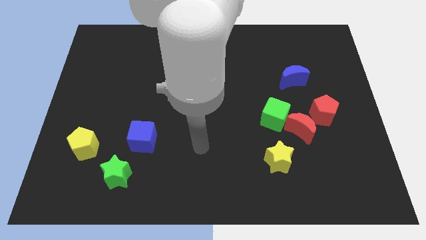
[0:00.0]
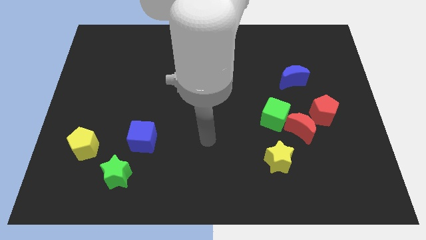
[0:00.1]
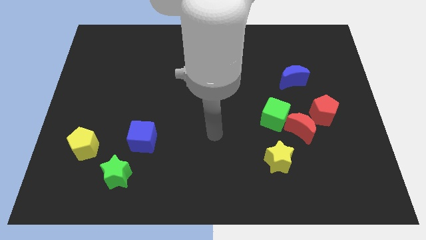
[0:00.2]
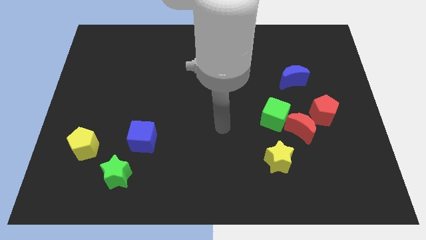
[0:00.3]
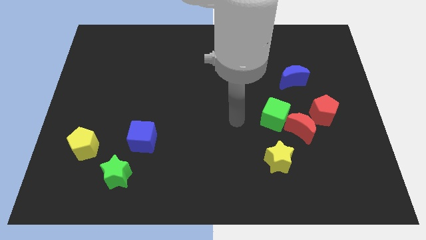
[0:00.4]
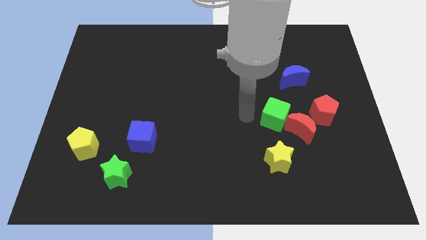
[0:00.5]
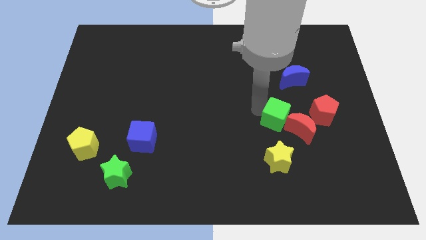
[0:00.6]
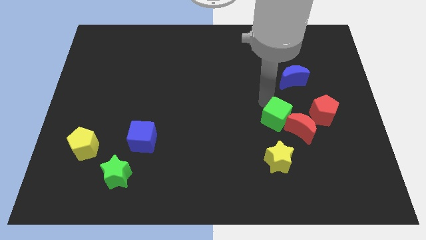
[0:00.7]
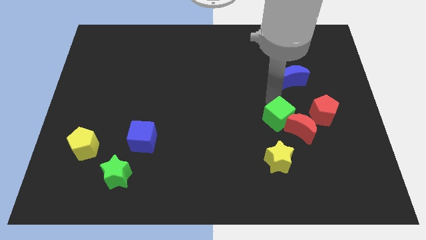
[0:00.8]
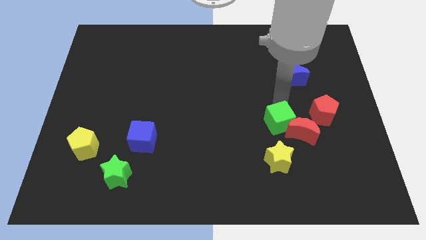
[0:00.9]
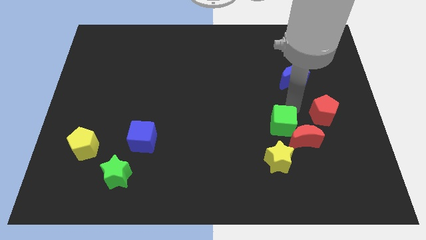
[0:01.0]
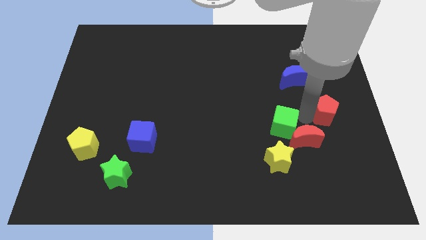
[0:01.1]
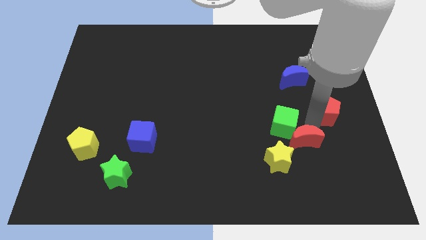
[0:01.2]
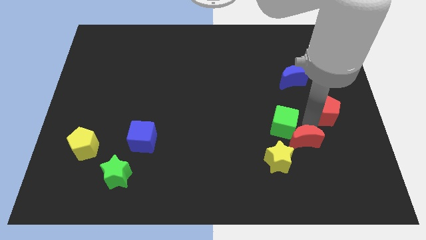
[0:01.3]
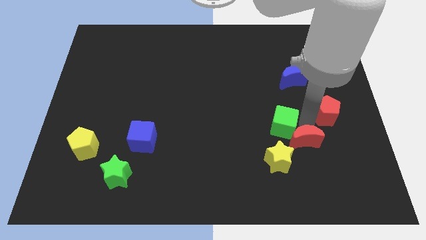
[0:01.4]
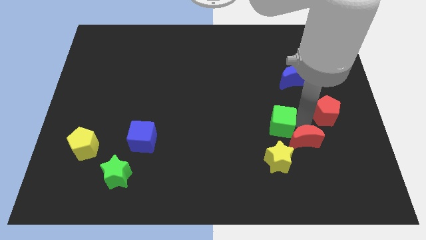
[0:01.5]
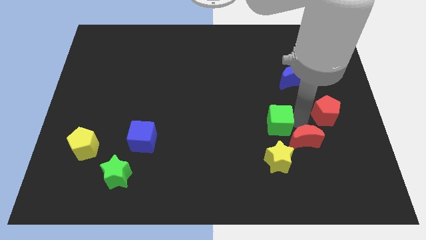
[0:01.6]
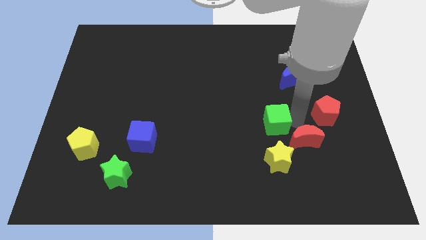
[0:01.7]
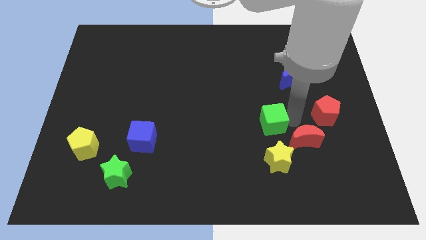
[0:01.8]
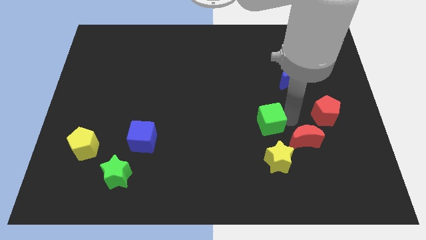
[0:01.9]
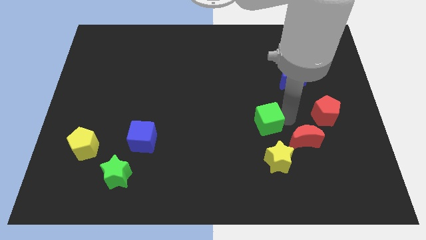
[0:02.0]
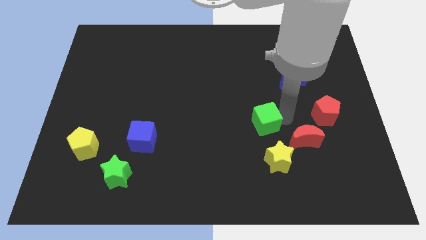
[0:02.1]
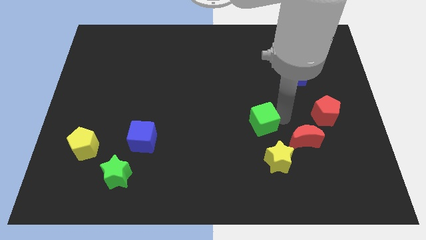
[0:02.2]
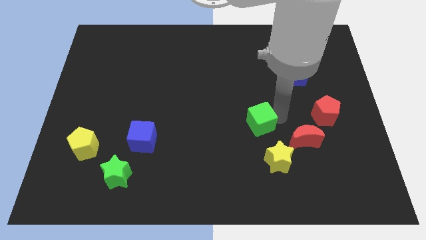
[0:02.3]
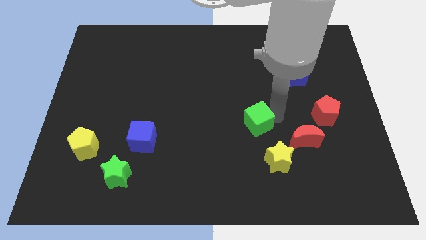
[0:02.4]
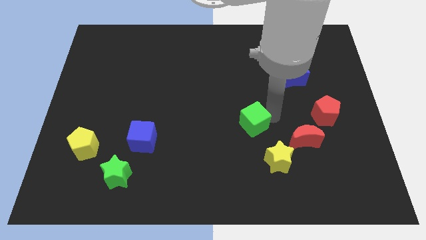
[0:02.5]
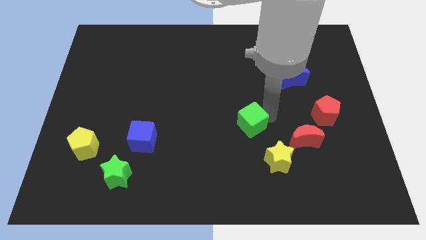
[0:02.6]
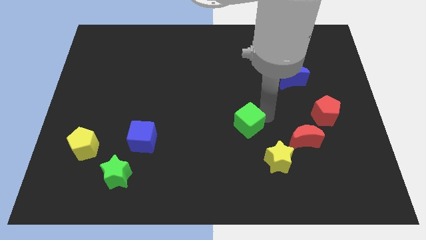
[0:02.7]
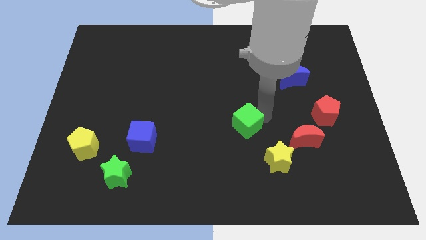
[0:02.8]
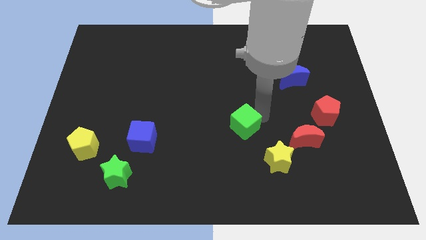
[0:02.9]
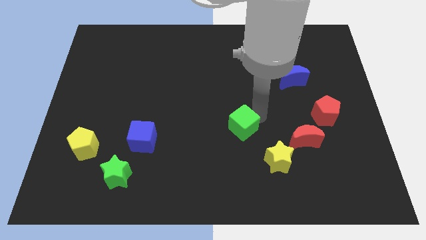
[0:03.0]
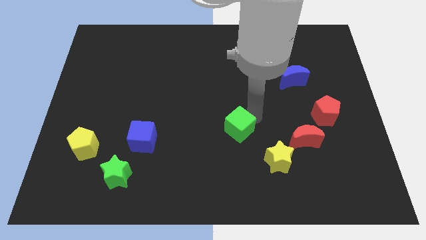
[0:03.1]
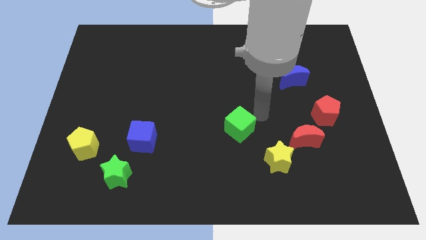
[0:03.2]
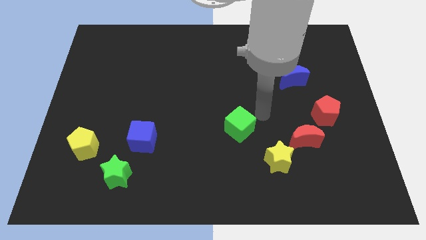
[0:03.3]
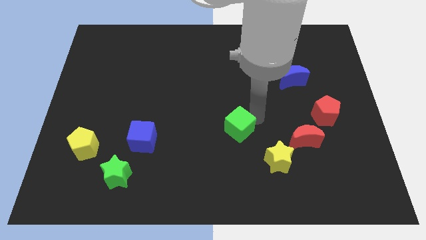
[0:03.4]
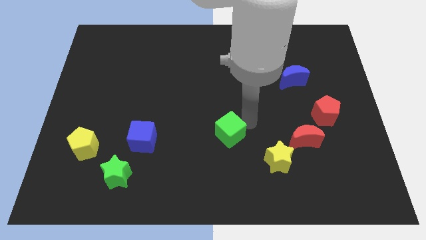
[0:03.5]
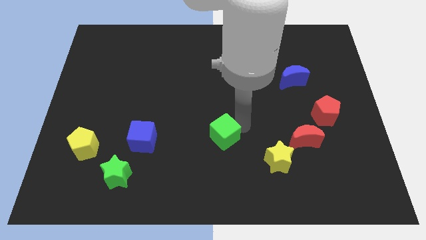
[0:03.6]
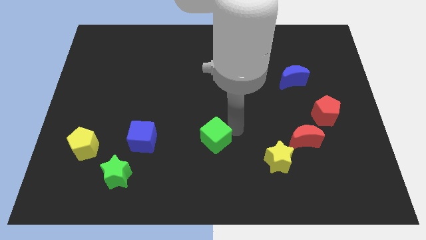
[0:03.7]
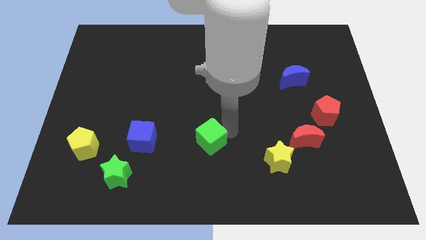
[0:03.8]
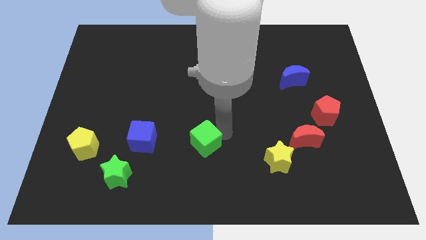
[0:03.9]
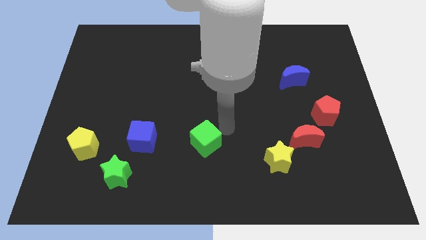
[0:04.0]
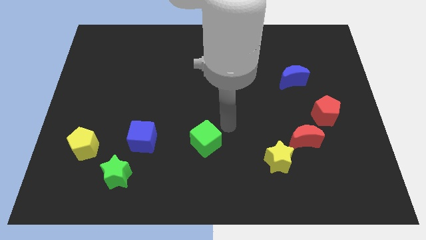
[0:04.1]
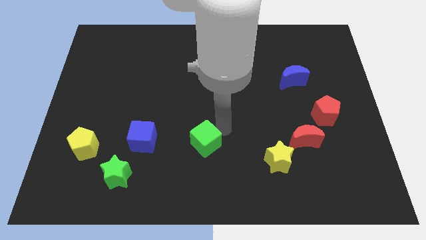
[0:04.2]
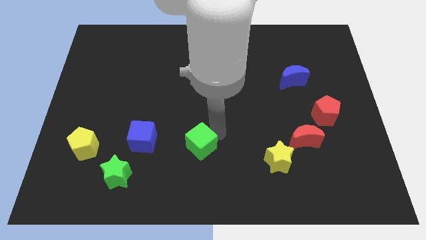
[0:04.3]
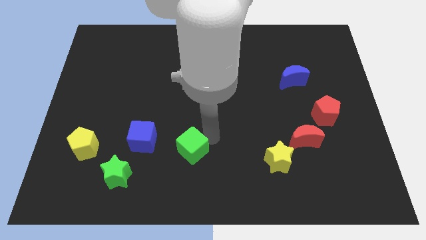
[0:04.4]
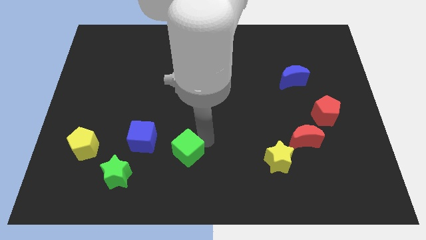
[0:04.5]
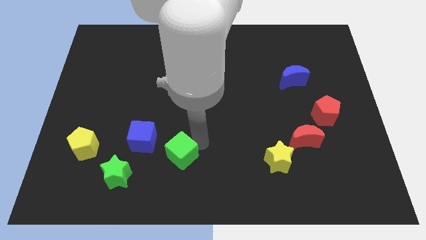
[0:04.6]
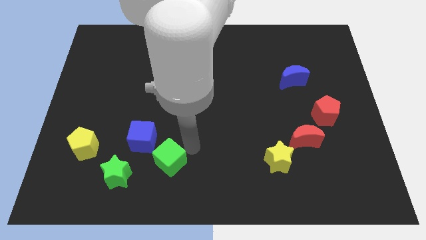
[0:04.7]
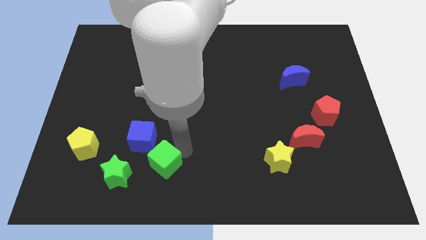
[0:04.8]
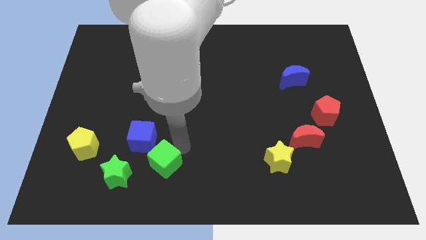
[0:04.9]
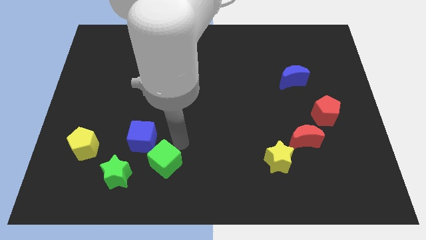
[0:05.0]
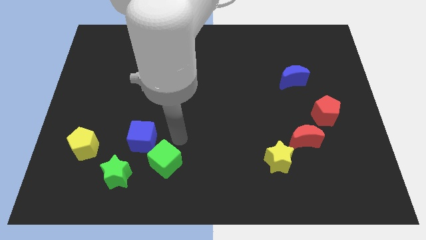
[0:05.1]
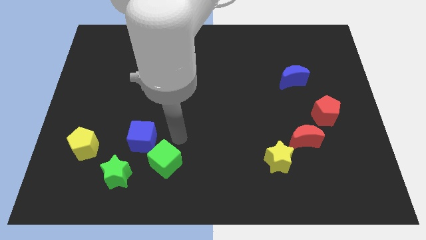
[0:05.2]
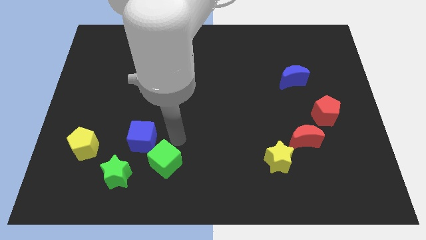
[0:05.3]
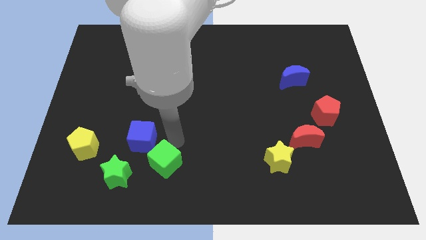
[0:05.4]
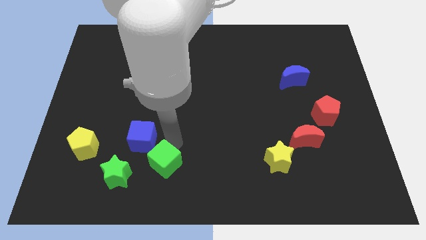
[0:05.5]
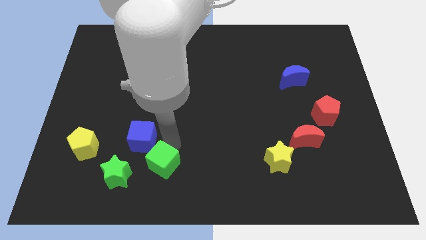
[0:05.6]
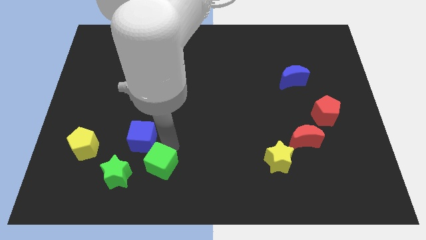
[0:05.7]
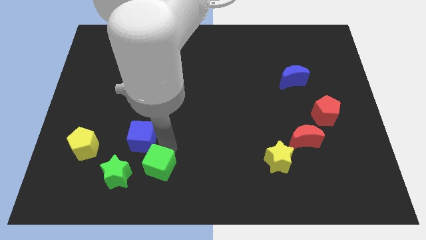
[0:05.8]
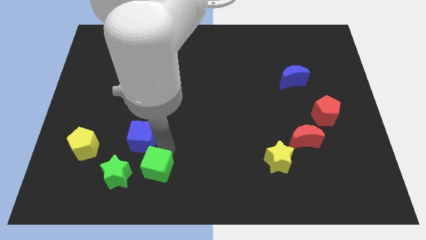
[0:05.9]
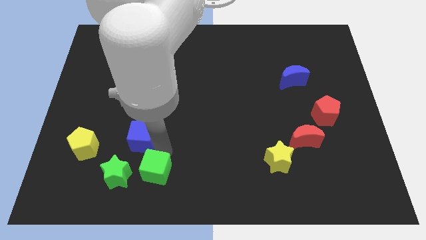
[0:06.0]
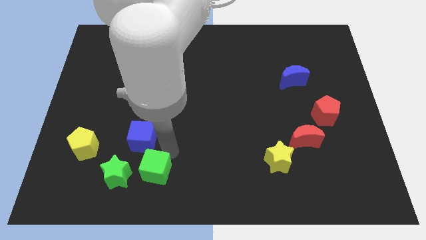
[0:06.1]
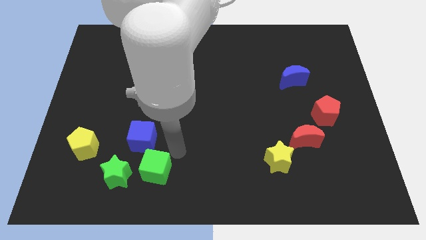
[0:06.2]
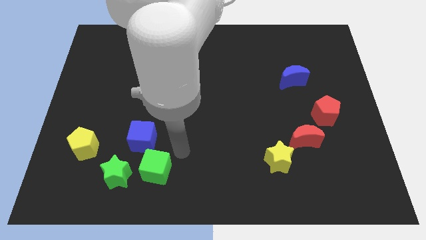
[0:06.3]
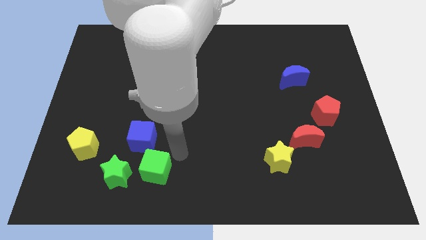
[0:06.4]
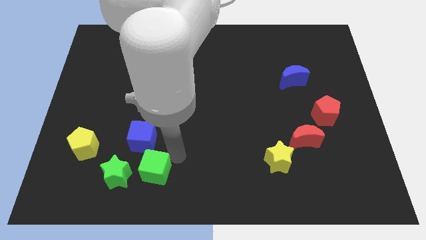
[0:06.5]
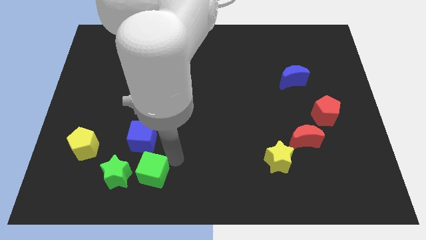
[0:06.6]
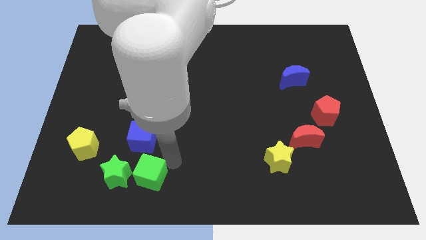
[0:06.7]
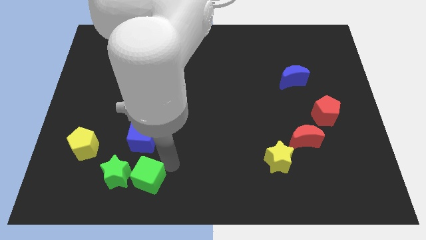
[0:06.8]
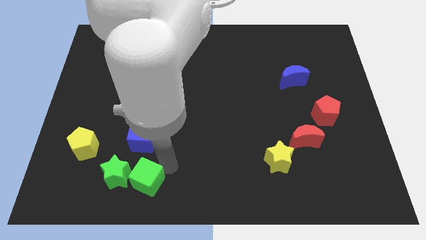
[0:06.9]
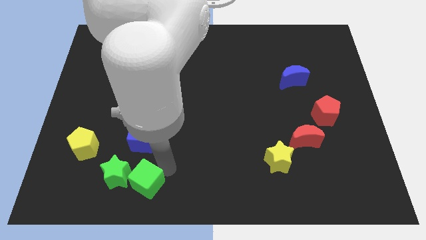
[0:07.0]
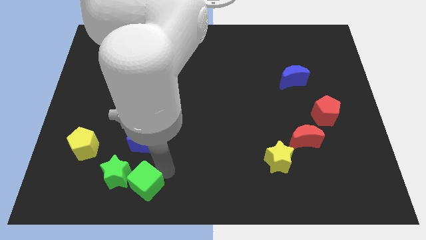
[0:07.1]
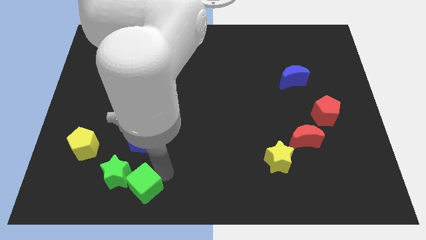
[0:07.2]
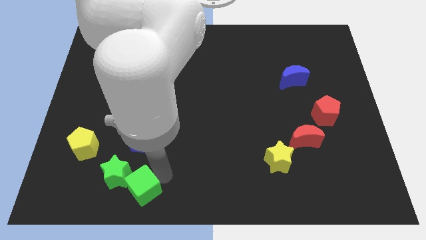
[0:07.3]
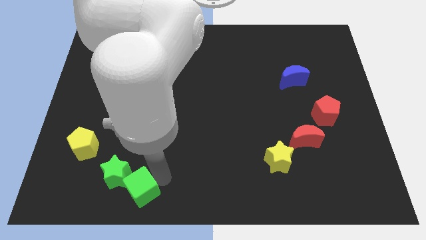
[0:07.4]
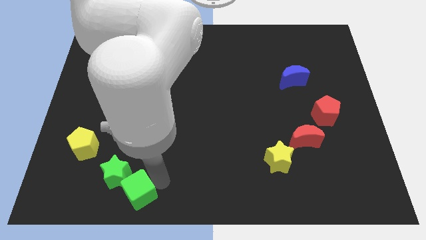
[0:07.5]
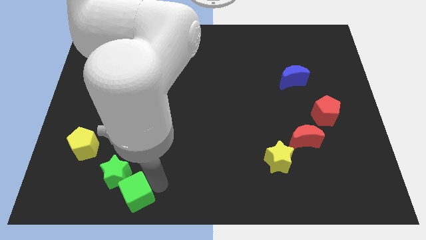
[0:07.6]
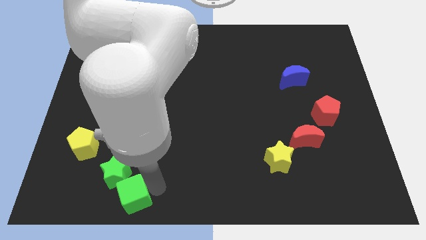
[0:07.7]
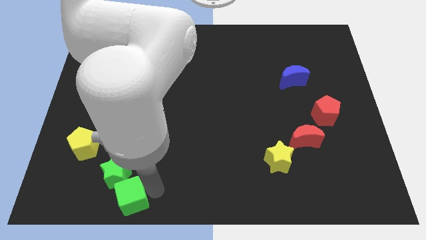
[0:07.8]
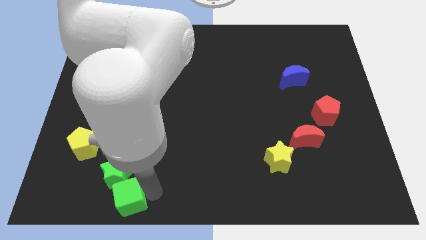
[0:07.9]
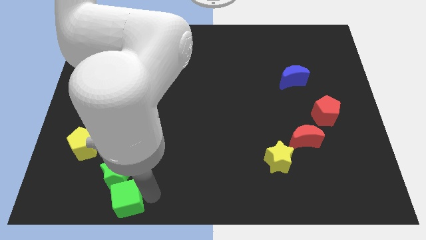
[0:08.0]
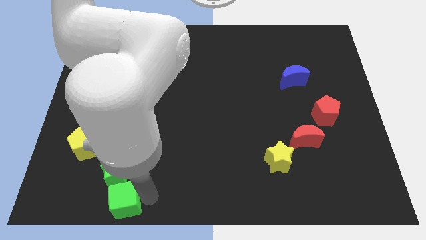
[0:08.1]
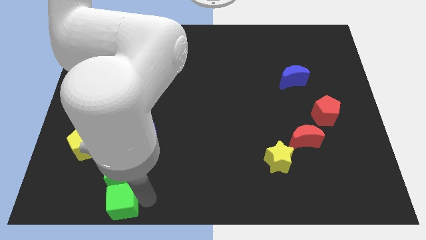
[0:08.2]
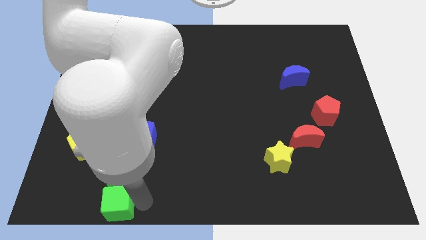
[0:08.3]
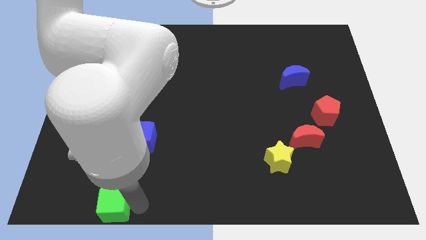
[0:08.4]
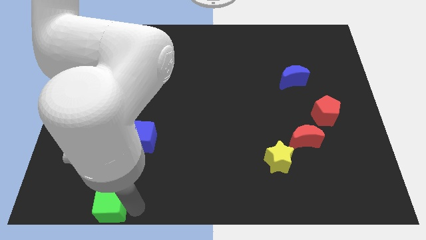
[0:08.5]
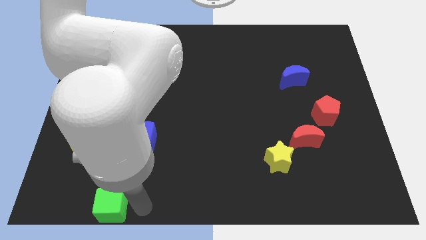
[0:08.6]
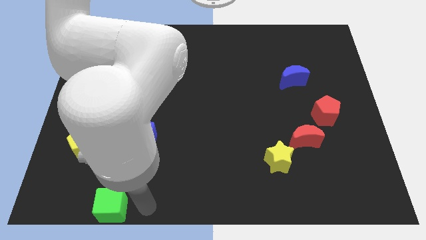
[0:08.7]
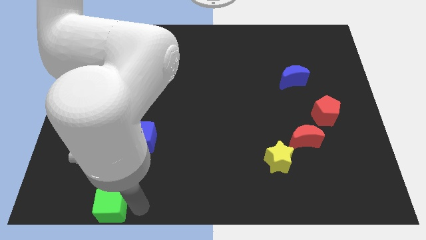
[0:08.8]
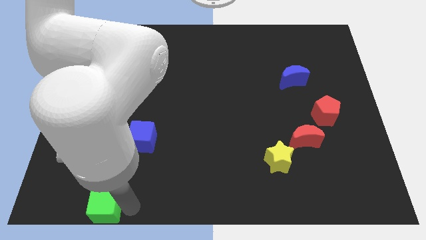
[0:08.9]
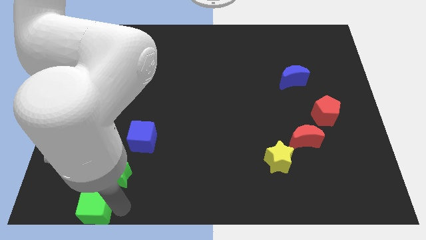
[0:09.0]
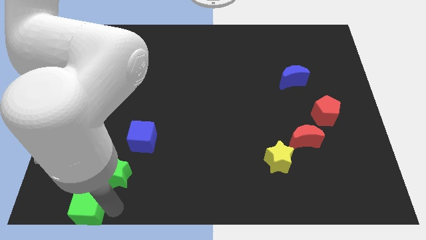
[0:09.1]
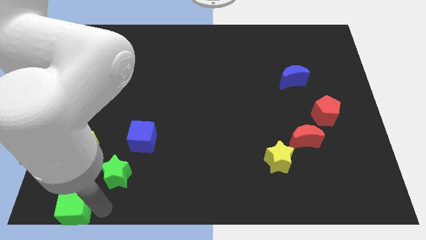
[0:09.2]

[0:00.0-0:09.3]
slide the green cube to the bottom left
